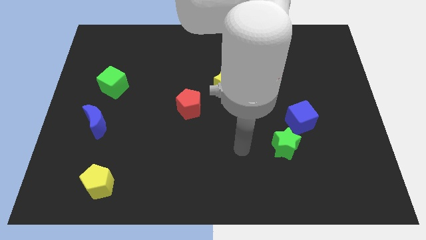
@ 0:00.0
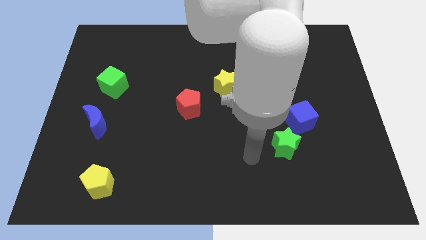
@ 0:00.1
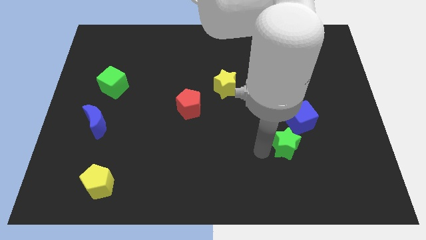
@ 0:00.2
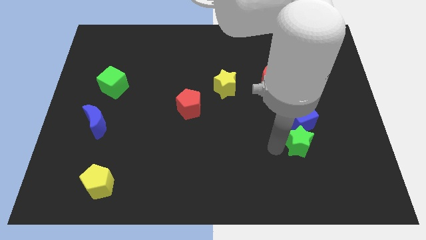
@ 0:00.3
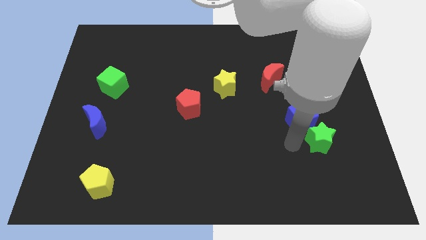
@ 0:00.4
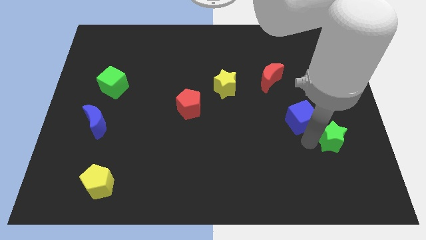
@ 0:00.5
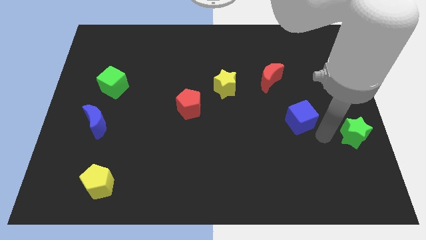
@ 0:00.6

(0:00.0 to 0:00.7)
pull the blue cube apart from the green star

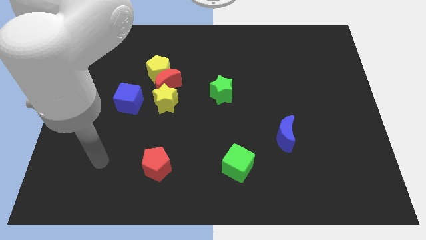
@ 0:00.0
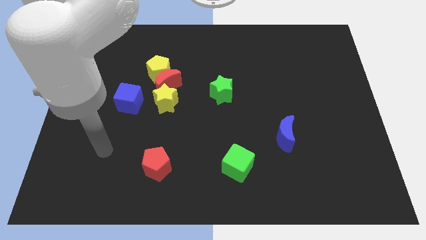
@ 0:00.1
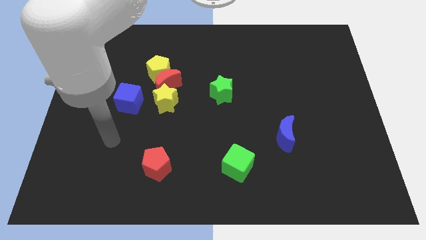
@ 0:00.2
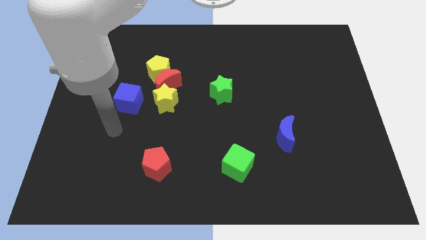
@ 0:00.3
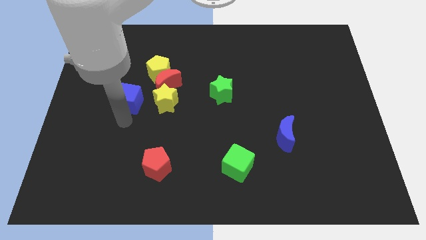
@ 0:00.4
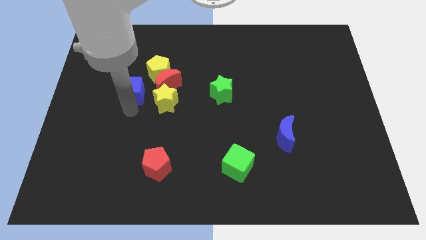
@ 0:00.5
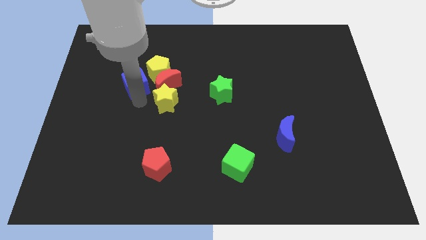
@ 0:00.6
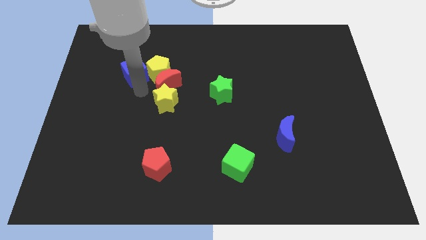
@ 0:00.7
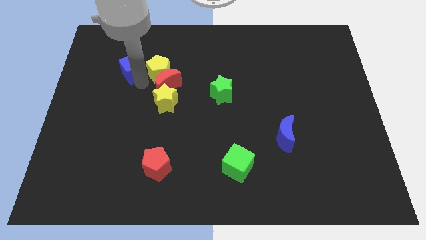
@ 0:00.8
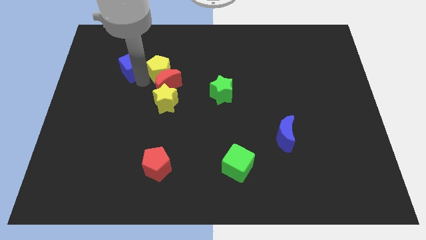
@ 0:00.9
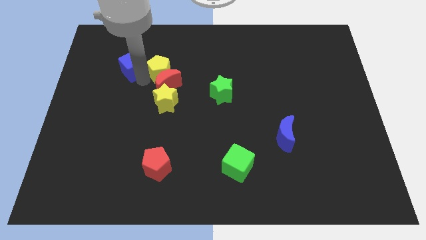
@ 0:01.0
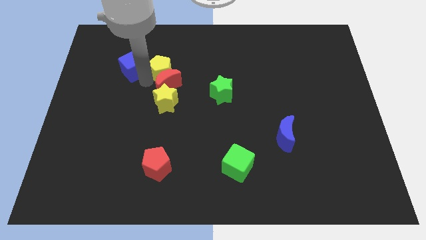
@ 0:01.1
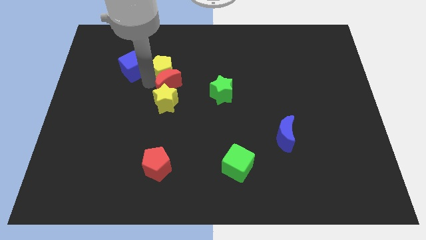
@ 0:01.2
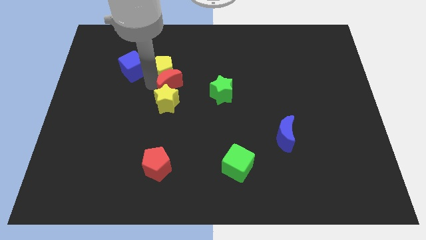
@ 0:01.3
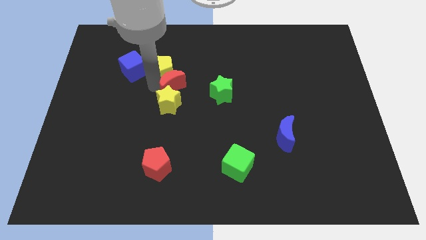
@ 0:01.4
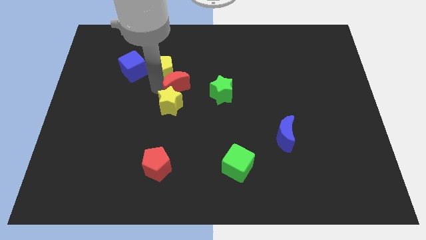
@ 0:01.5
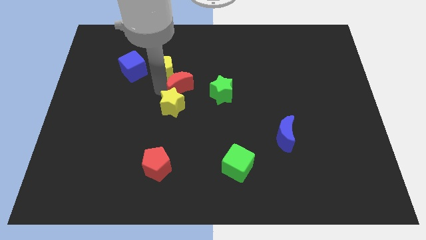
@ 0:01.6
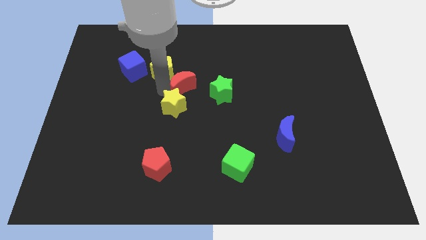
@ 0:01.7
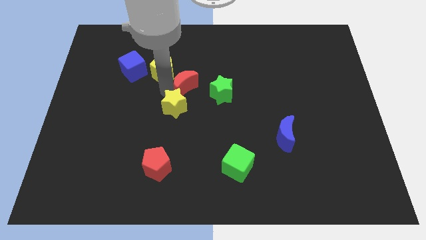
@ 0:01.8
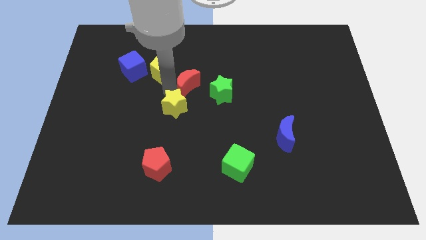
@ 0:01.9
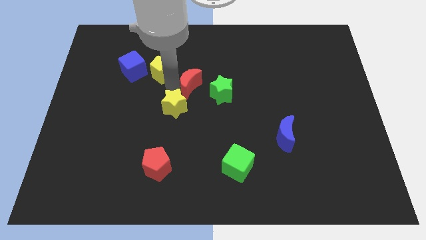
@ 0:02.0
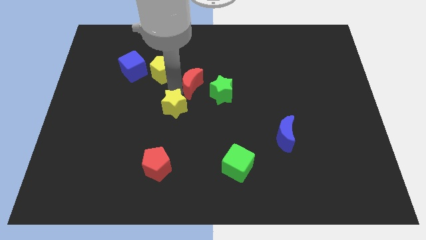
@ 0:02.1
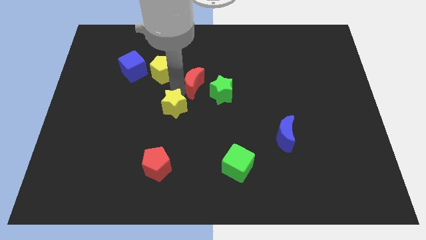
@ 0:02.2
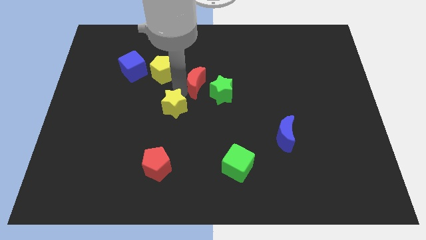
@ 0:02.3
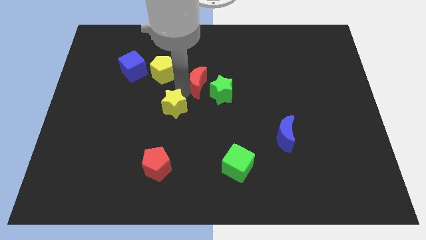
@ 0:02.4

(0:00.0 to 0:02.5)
separate the red moon from the group

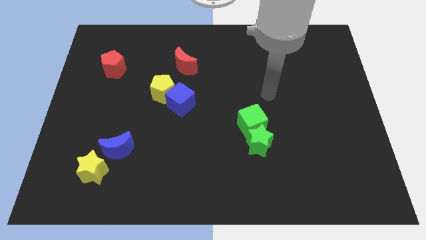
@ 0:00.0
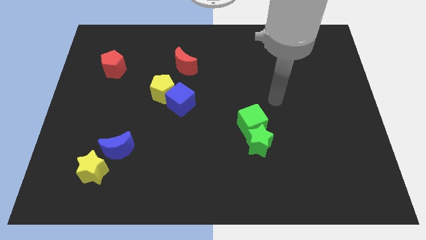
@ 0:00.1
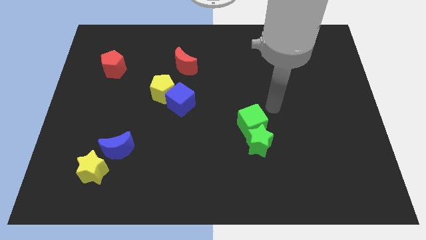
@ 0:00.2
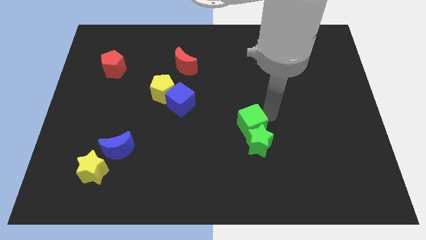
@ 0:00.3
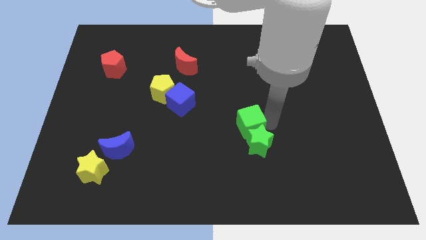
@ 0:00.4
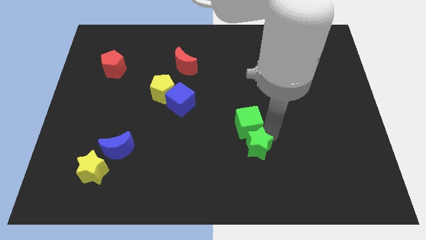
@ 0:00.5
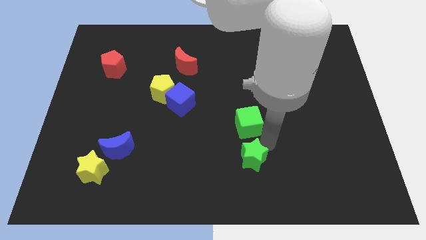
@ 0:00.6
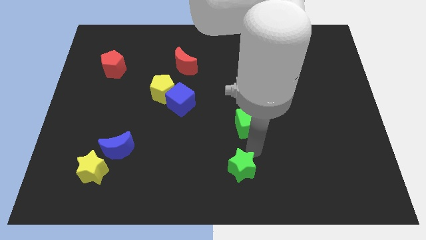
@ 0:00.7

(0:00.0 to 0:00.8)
separate the green cube from the green star

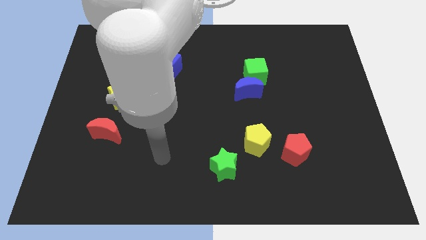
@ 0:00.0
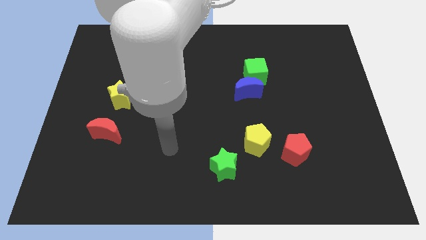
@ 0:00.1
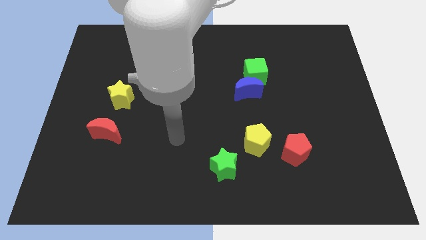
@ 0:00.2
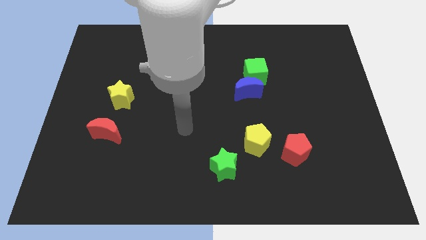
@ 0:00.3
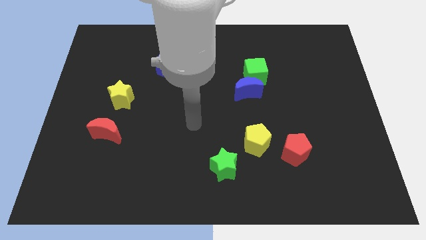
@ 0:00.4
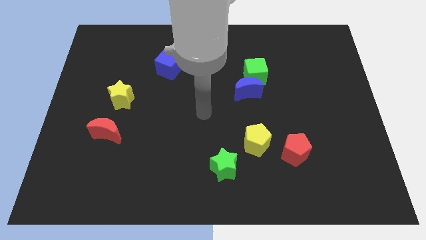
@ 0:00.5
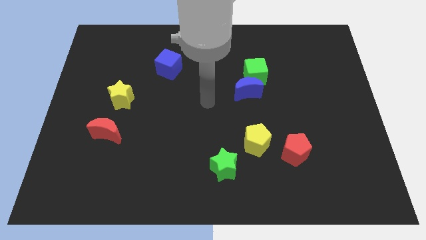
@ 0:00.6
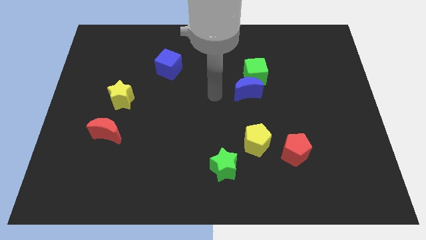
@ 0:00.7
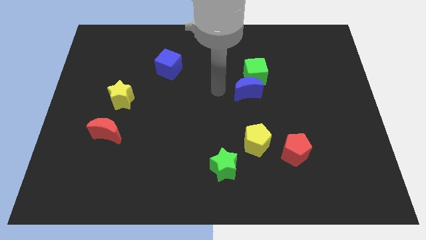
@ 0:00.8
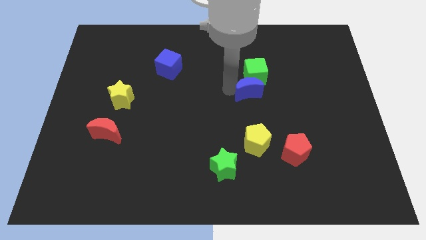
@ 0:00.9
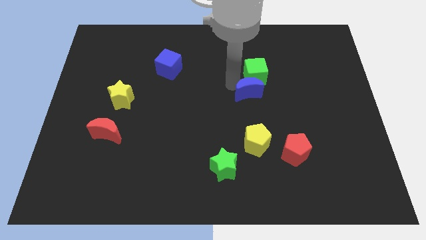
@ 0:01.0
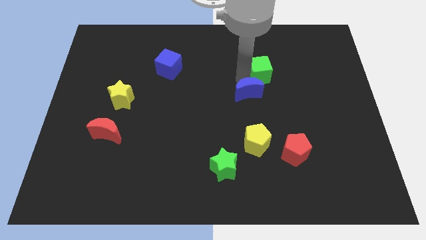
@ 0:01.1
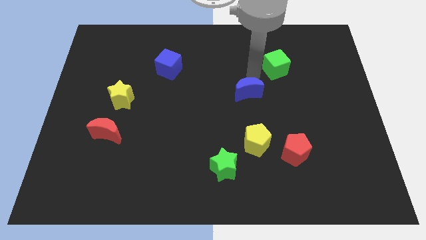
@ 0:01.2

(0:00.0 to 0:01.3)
separate the blue moon from the green cube

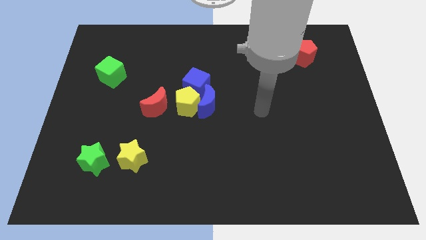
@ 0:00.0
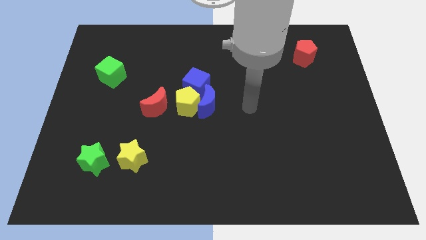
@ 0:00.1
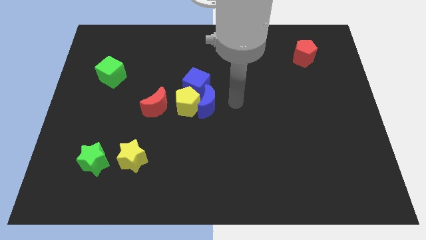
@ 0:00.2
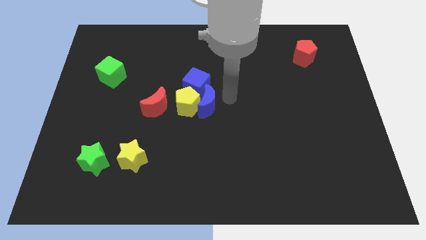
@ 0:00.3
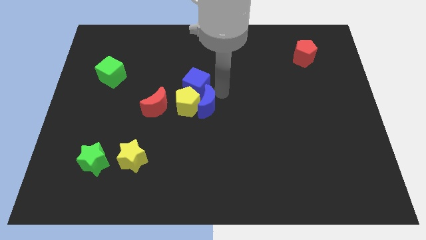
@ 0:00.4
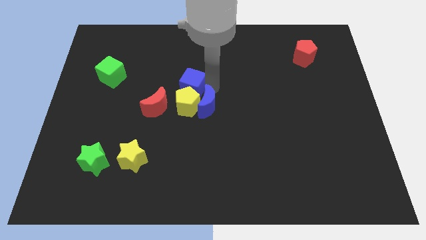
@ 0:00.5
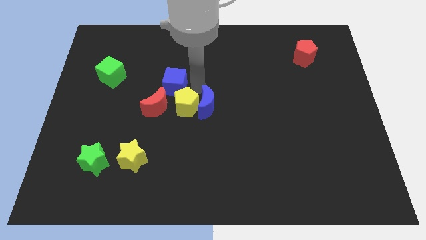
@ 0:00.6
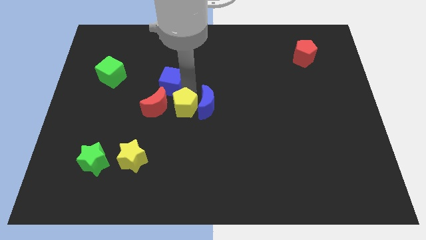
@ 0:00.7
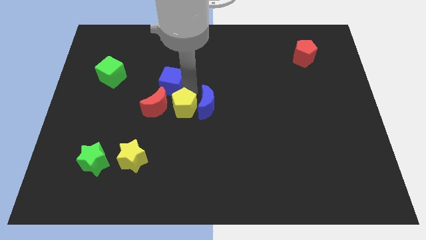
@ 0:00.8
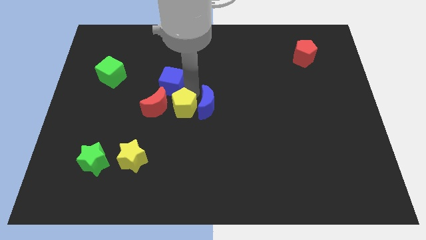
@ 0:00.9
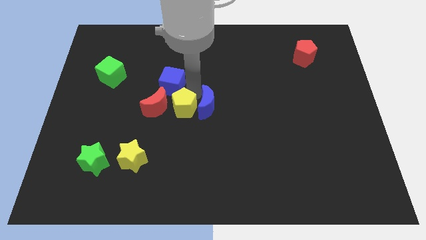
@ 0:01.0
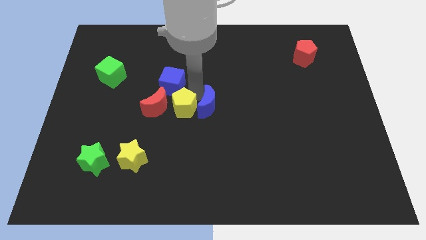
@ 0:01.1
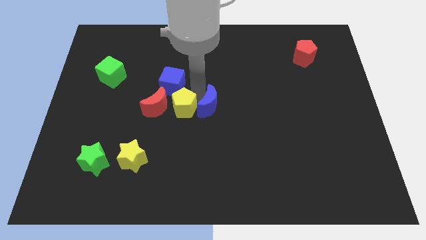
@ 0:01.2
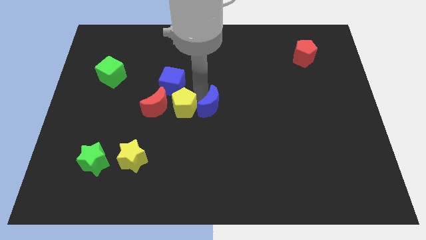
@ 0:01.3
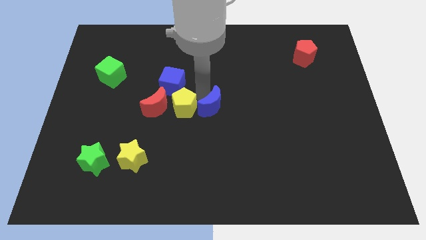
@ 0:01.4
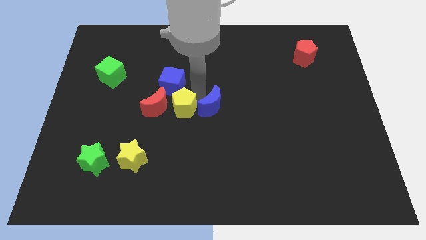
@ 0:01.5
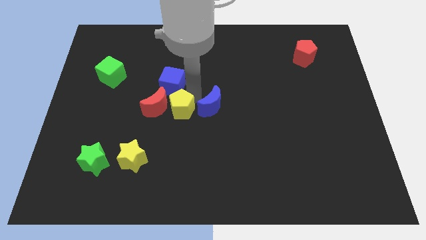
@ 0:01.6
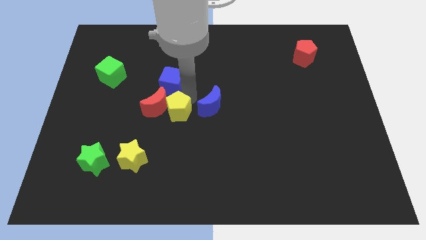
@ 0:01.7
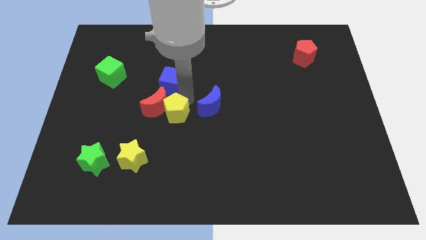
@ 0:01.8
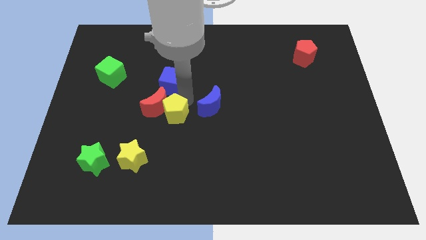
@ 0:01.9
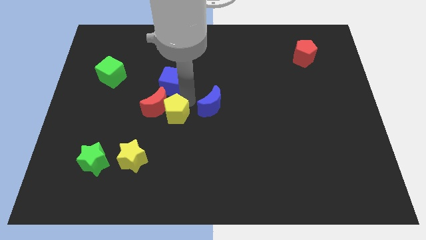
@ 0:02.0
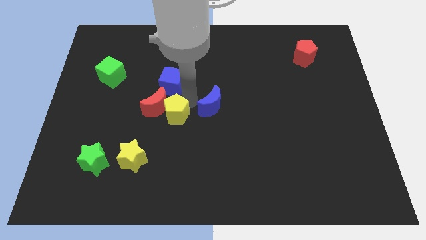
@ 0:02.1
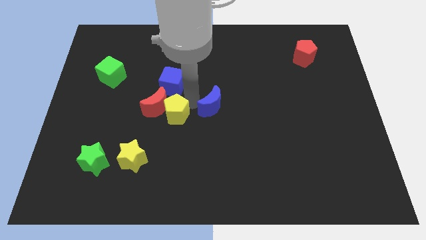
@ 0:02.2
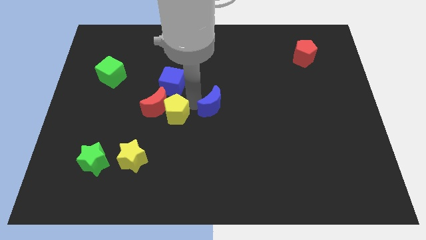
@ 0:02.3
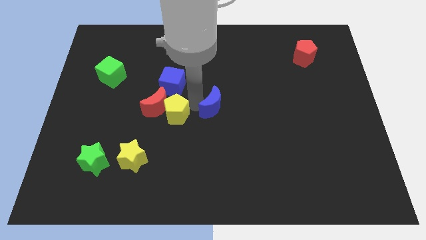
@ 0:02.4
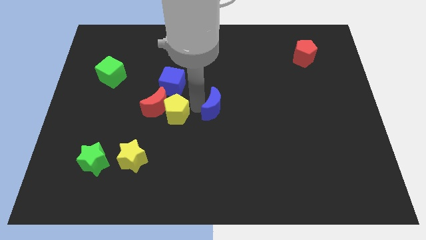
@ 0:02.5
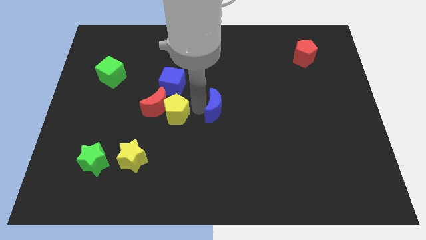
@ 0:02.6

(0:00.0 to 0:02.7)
separate the blue moon from the yellow pentagon and blue cube

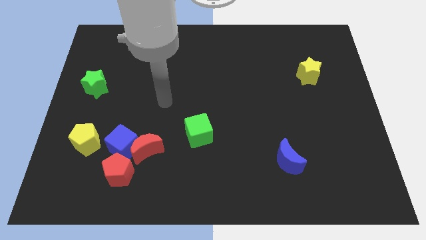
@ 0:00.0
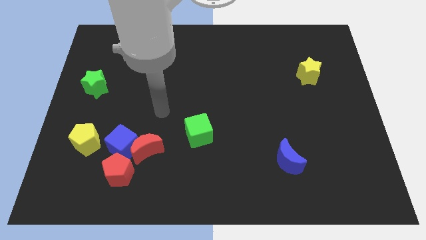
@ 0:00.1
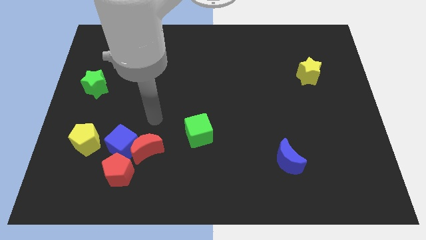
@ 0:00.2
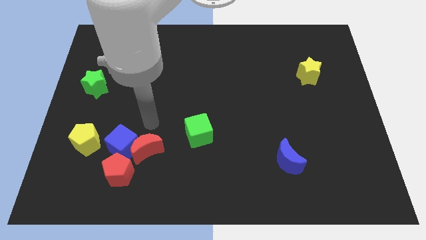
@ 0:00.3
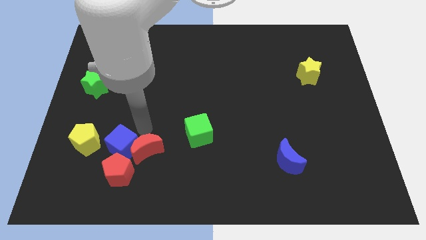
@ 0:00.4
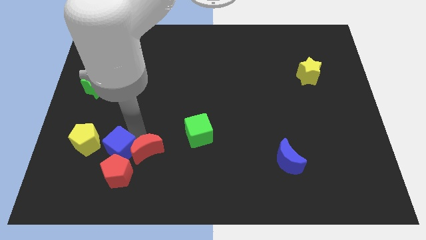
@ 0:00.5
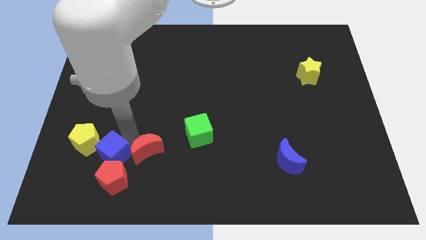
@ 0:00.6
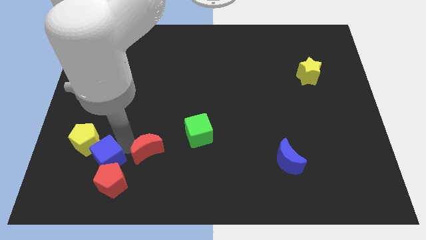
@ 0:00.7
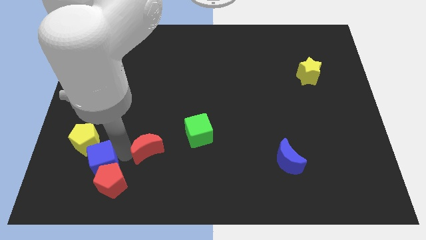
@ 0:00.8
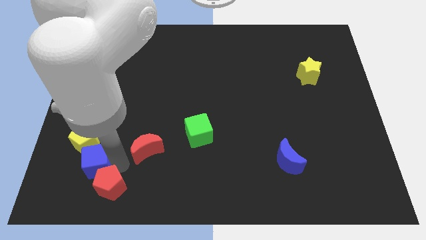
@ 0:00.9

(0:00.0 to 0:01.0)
pull the red moon apart from the blue cube and red pentagon

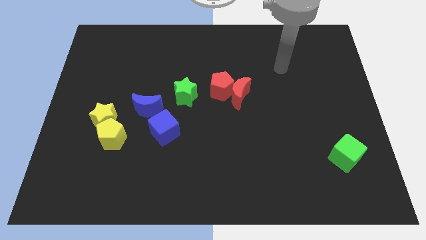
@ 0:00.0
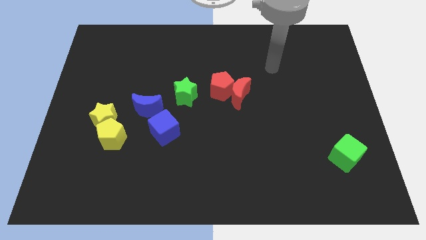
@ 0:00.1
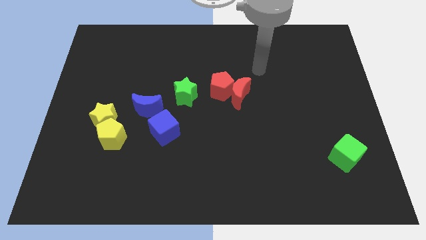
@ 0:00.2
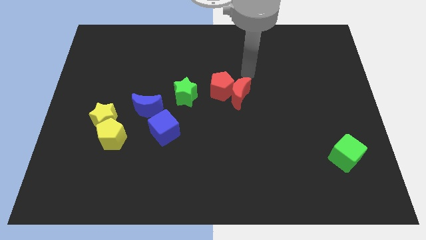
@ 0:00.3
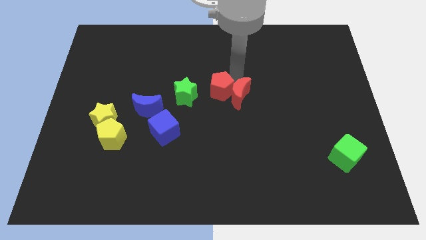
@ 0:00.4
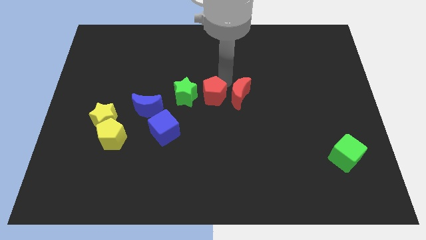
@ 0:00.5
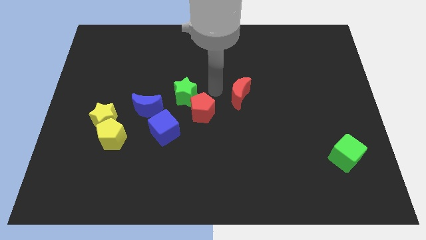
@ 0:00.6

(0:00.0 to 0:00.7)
move the red moon away from the red pentagon
